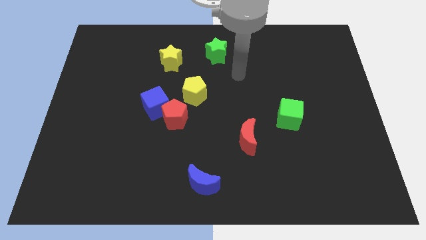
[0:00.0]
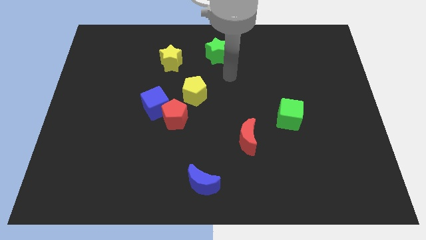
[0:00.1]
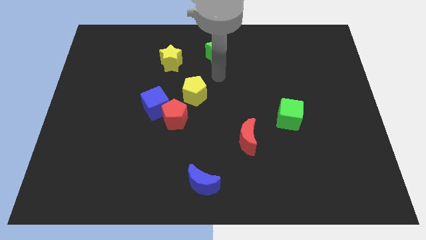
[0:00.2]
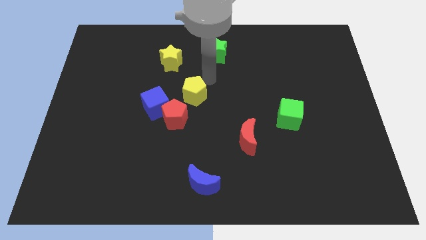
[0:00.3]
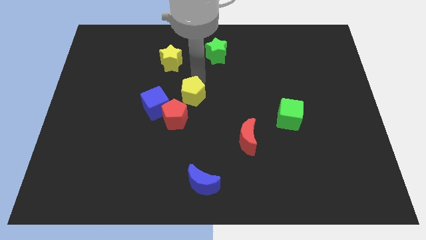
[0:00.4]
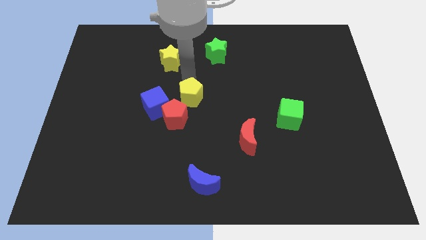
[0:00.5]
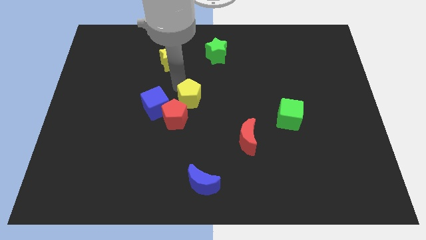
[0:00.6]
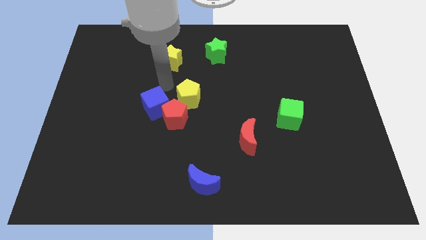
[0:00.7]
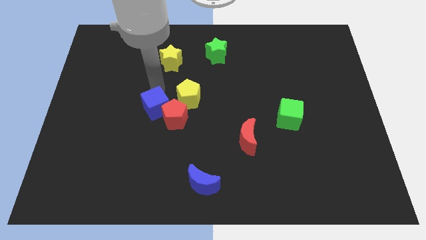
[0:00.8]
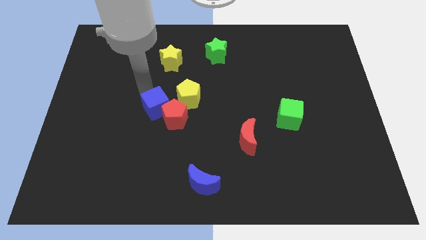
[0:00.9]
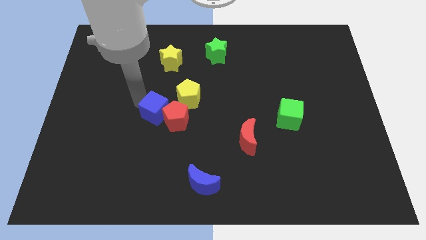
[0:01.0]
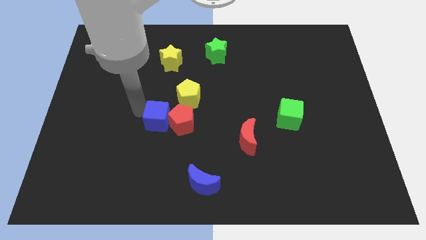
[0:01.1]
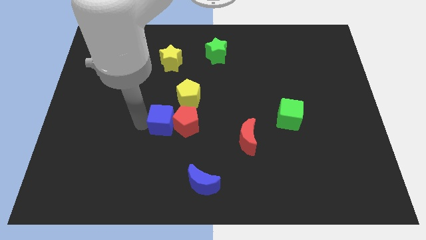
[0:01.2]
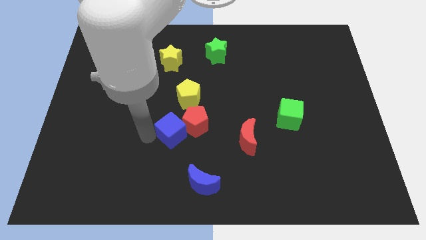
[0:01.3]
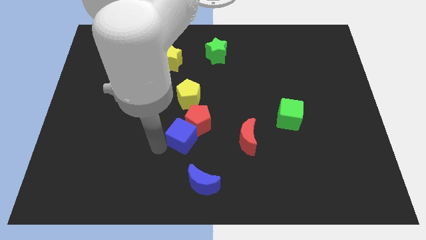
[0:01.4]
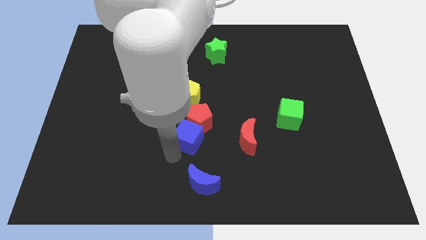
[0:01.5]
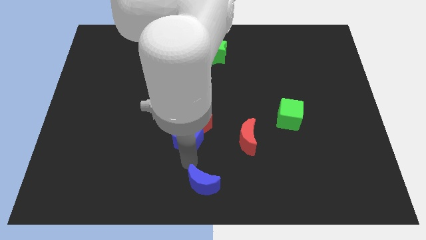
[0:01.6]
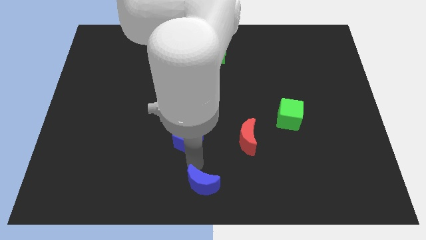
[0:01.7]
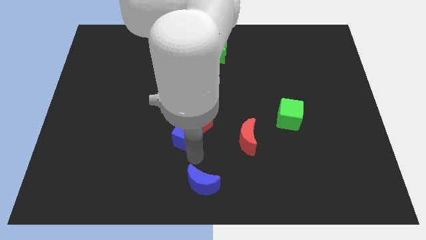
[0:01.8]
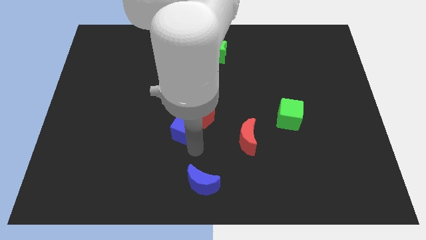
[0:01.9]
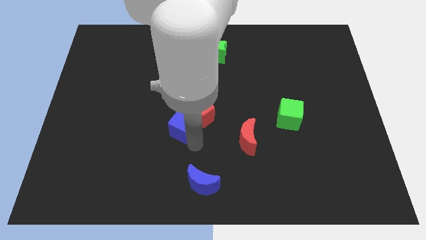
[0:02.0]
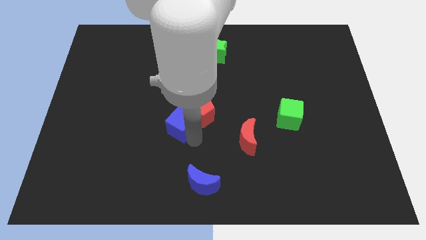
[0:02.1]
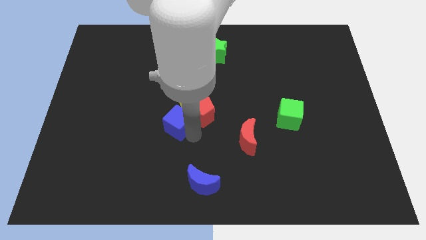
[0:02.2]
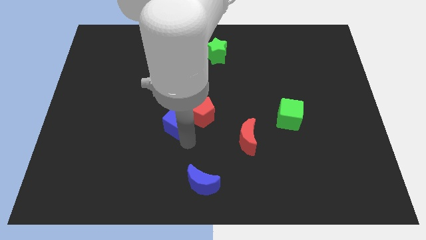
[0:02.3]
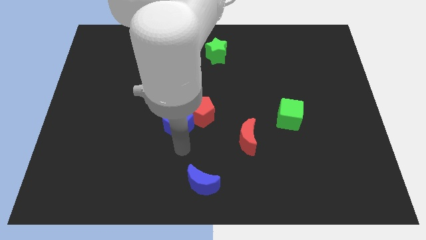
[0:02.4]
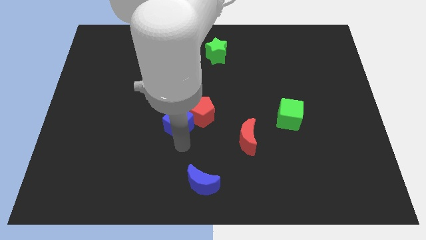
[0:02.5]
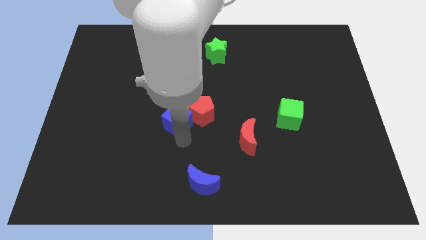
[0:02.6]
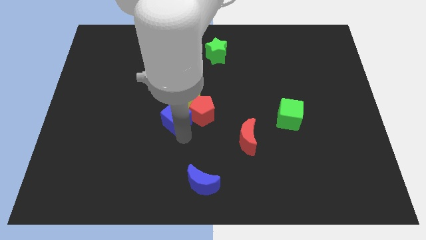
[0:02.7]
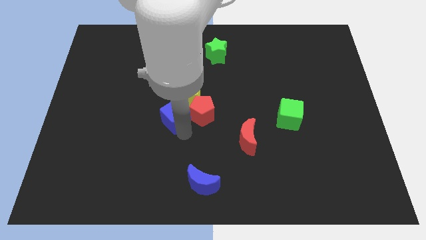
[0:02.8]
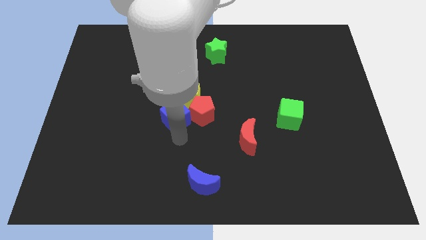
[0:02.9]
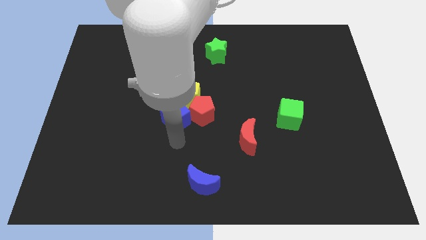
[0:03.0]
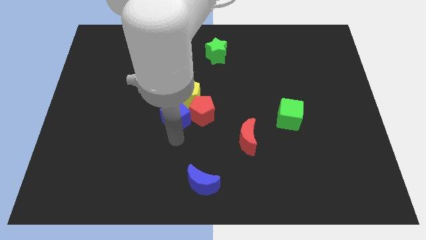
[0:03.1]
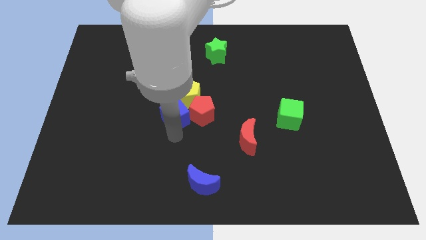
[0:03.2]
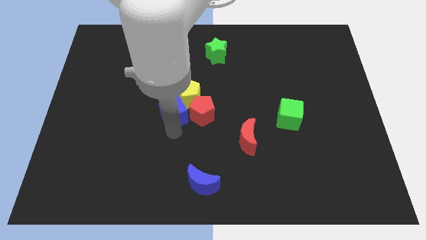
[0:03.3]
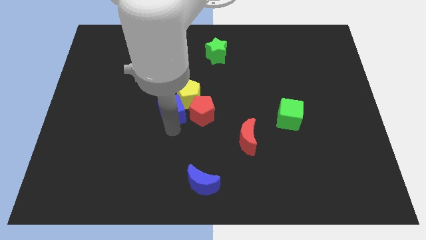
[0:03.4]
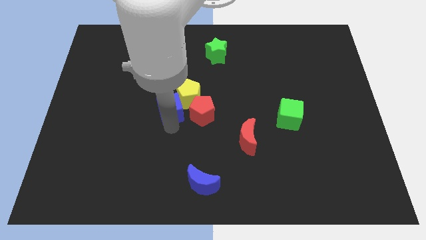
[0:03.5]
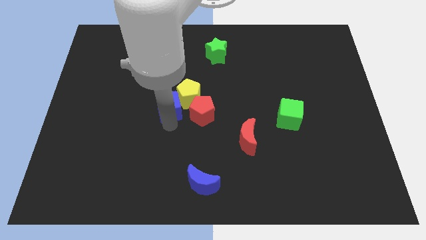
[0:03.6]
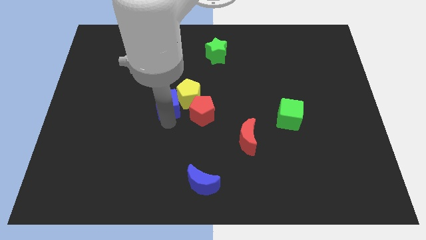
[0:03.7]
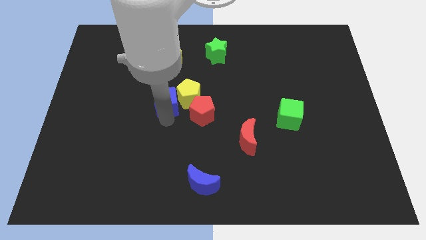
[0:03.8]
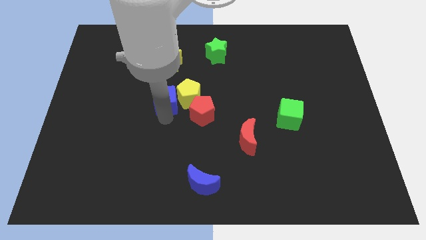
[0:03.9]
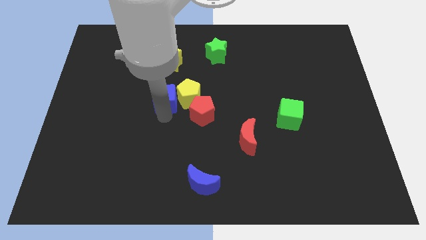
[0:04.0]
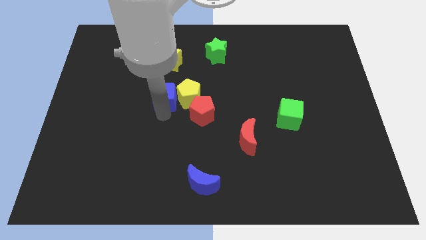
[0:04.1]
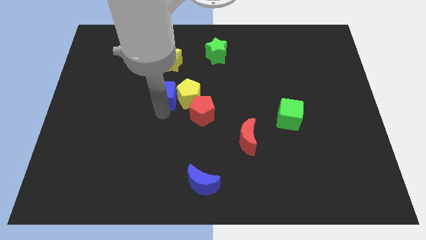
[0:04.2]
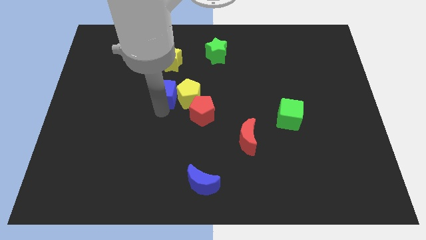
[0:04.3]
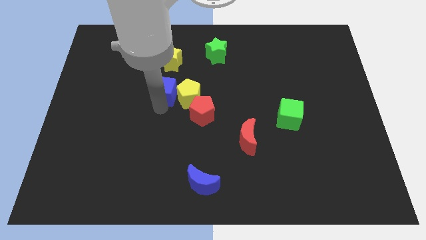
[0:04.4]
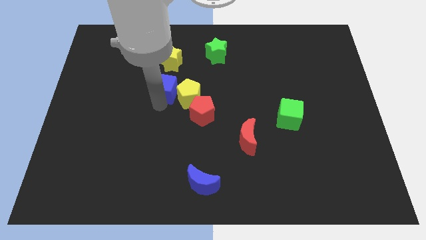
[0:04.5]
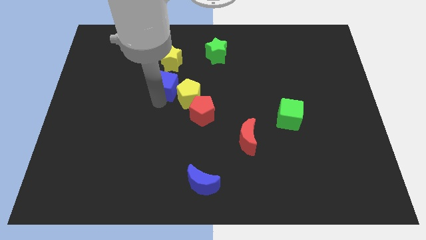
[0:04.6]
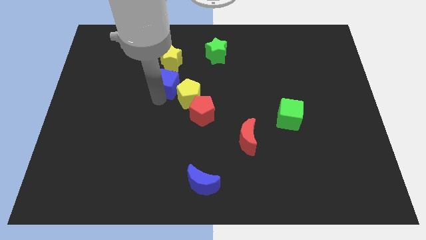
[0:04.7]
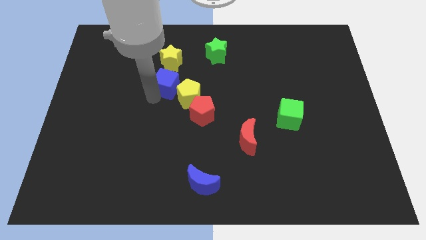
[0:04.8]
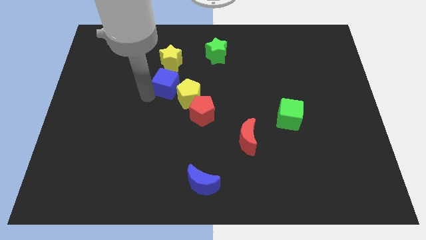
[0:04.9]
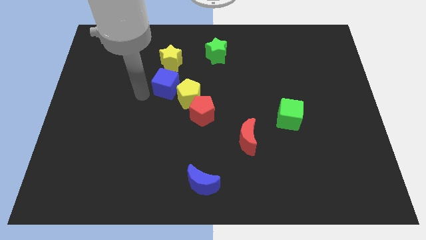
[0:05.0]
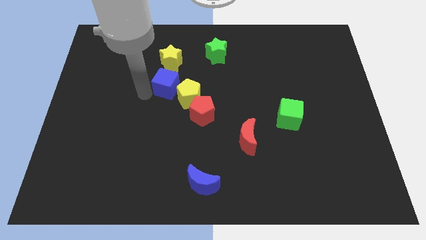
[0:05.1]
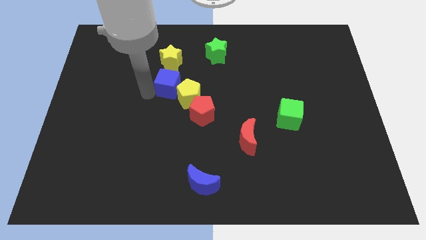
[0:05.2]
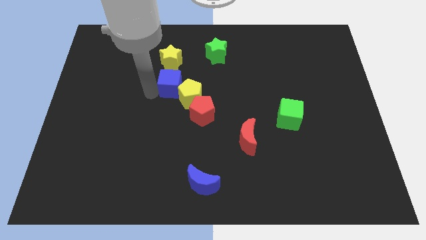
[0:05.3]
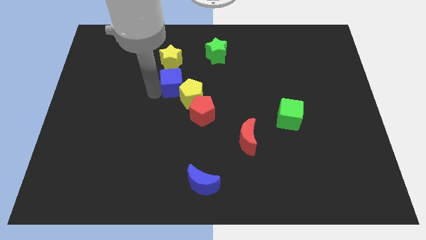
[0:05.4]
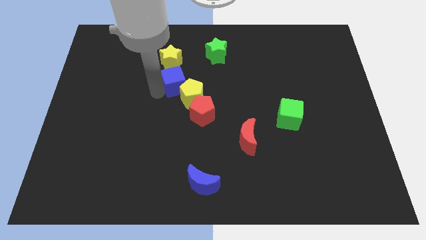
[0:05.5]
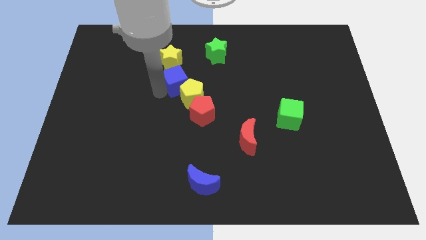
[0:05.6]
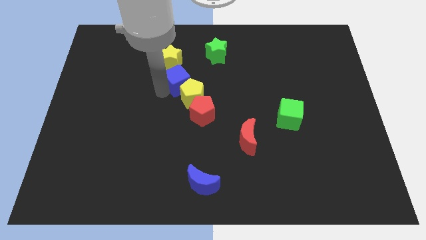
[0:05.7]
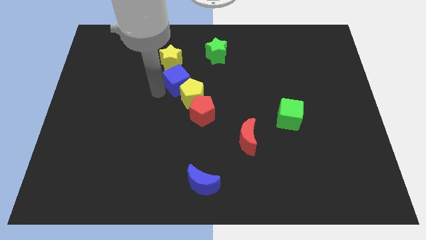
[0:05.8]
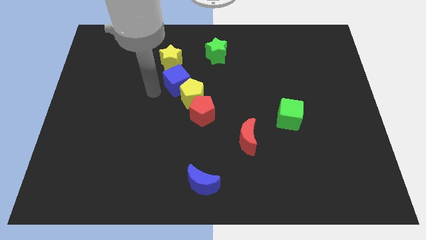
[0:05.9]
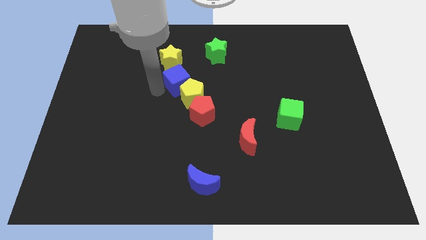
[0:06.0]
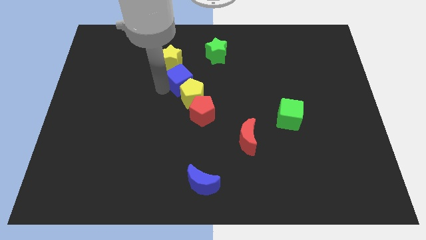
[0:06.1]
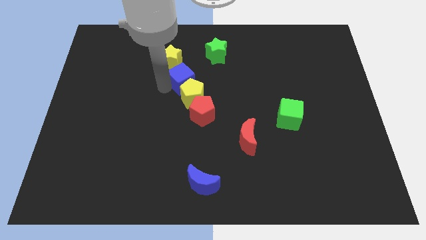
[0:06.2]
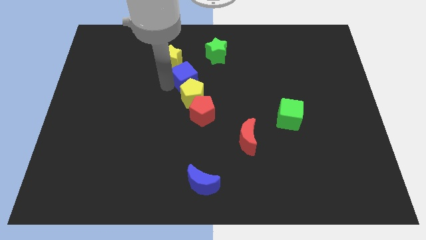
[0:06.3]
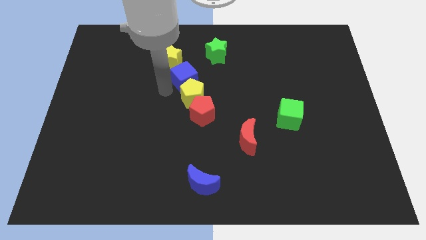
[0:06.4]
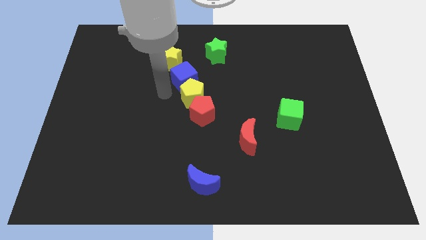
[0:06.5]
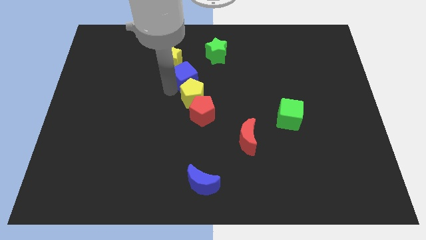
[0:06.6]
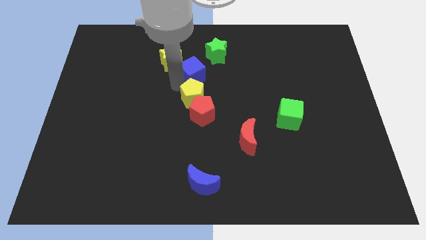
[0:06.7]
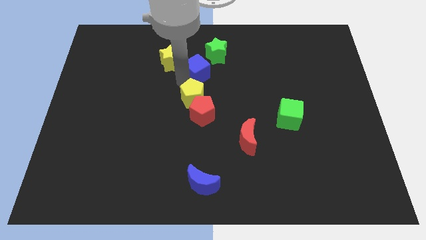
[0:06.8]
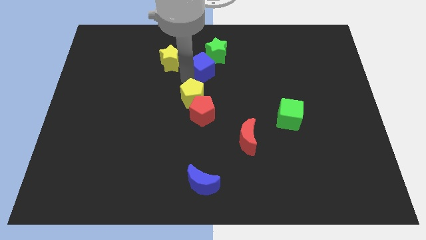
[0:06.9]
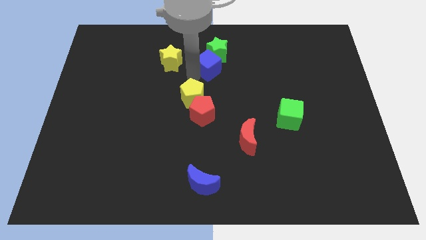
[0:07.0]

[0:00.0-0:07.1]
slide the blue cube towards the green star

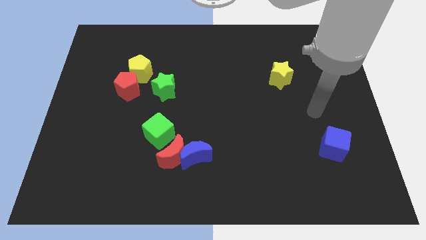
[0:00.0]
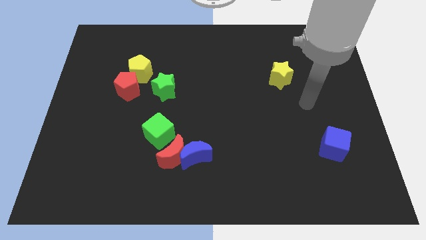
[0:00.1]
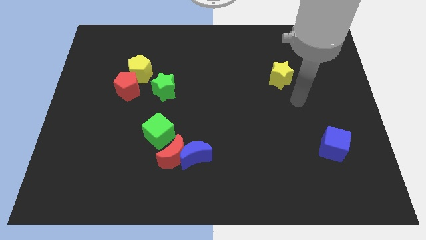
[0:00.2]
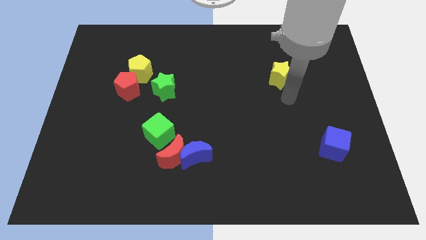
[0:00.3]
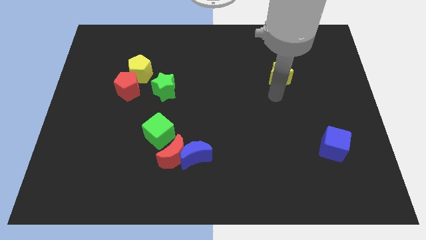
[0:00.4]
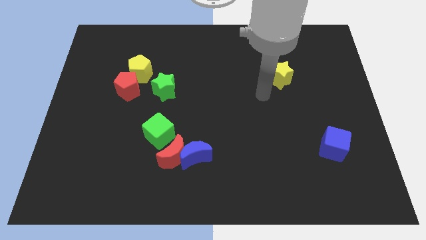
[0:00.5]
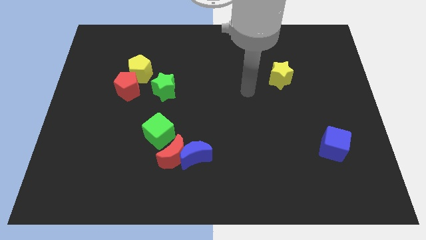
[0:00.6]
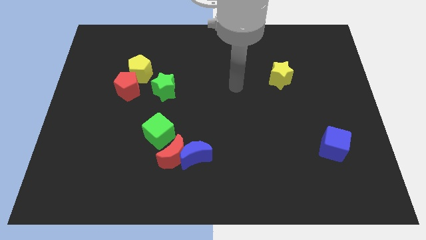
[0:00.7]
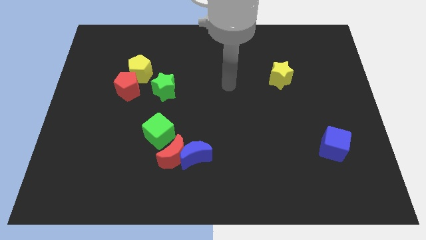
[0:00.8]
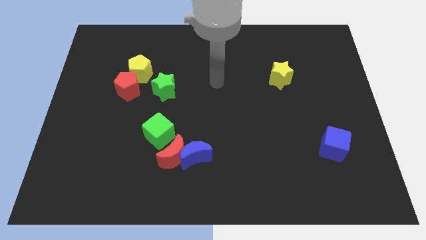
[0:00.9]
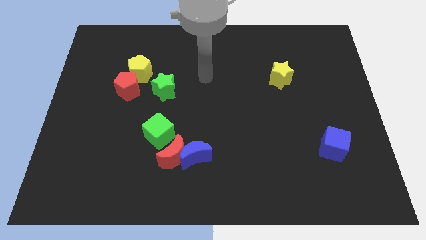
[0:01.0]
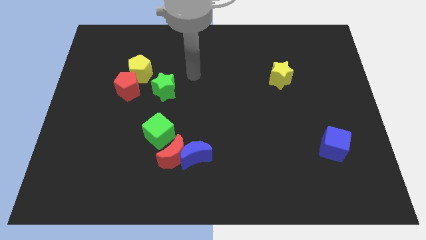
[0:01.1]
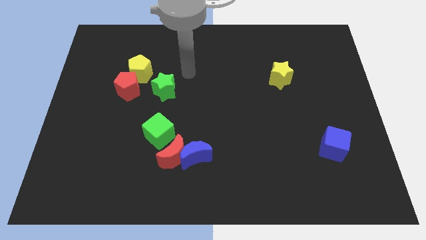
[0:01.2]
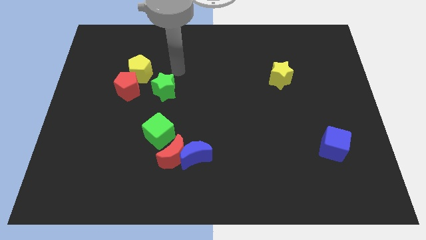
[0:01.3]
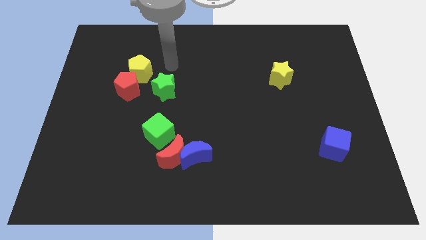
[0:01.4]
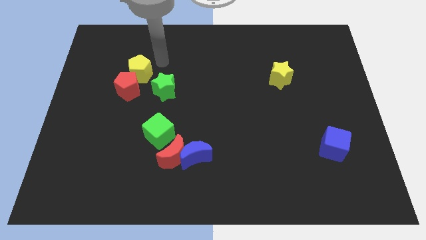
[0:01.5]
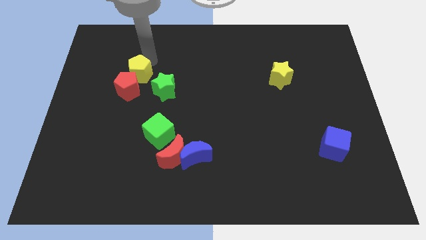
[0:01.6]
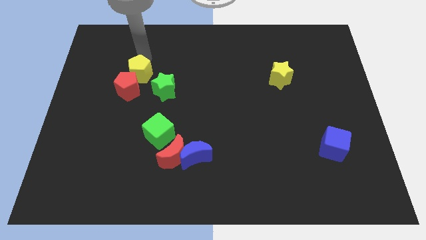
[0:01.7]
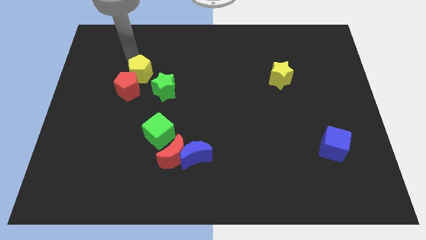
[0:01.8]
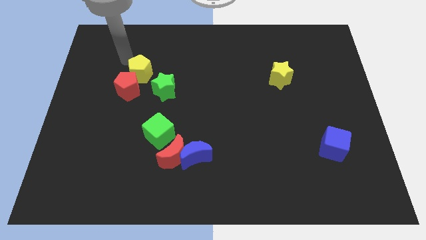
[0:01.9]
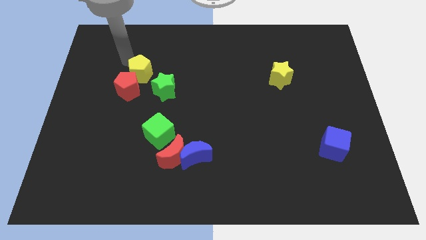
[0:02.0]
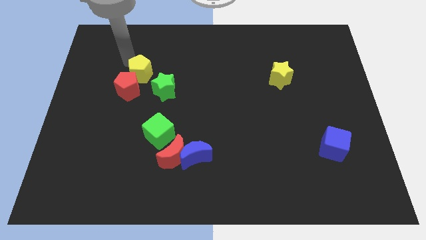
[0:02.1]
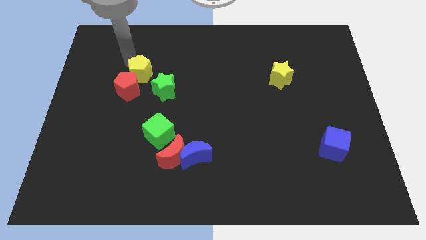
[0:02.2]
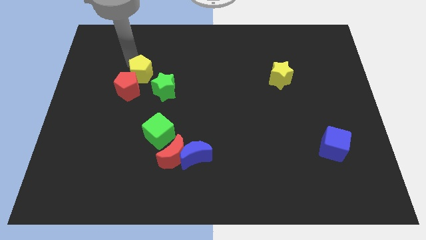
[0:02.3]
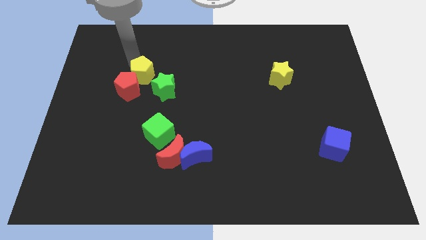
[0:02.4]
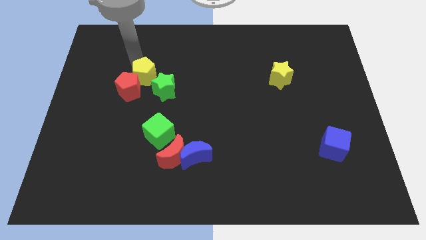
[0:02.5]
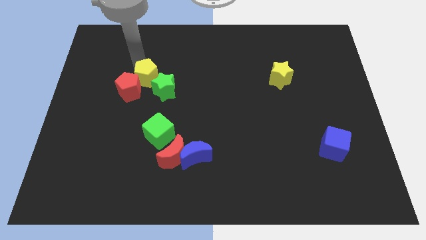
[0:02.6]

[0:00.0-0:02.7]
move the yellow pentagon next to the green star
